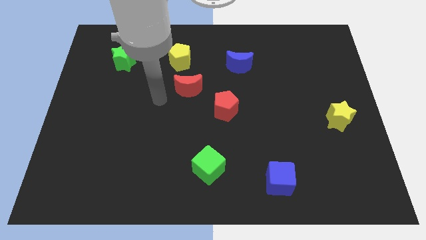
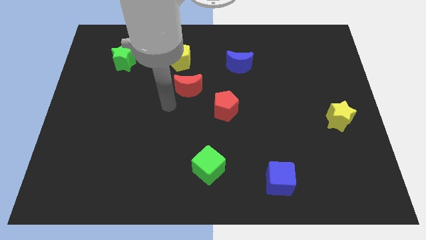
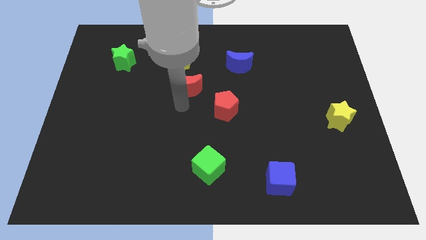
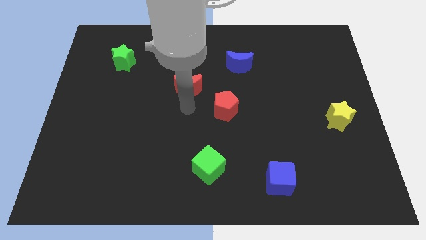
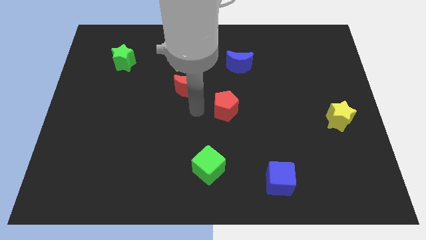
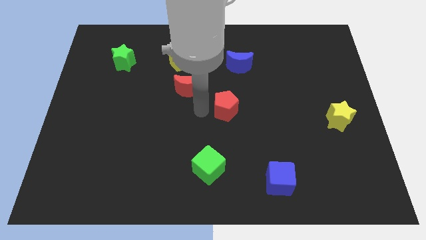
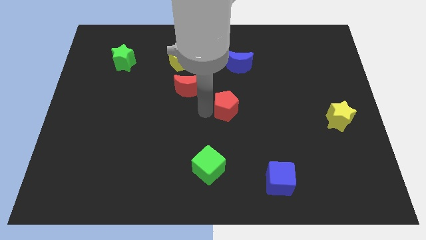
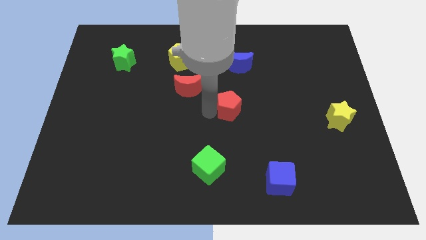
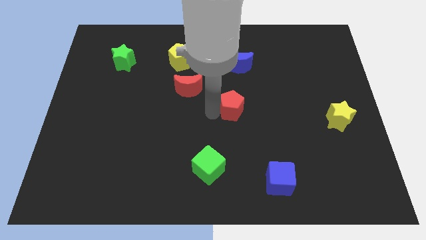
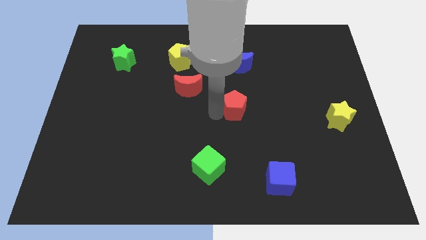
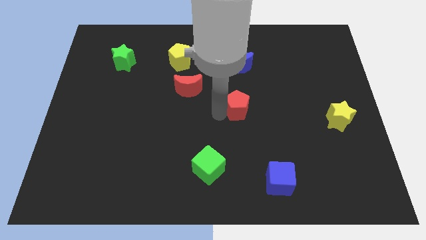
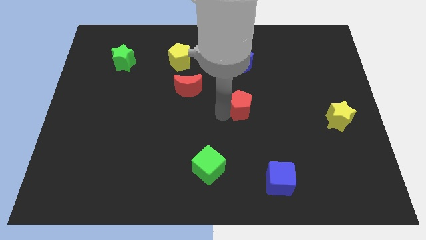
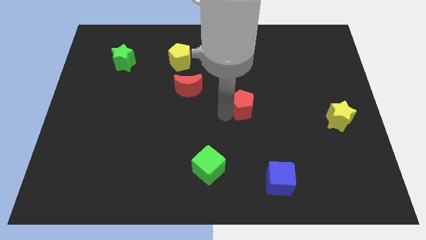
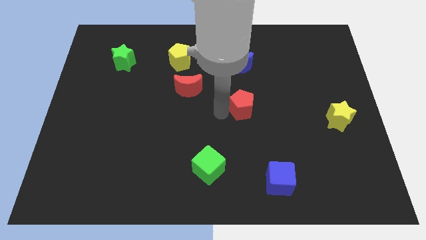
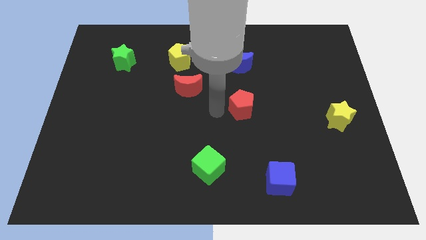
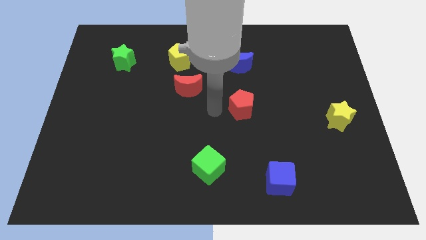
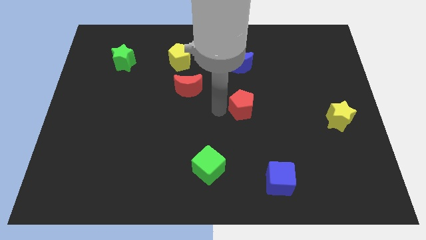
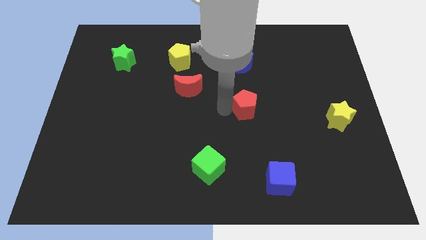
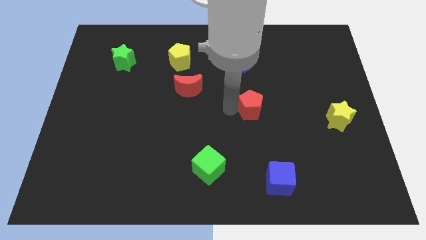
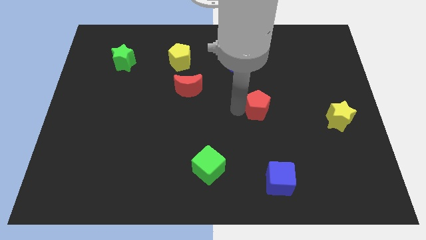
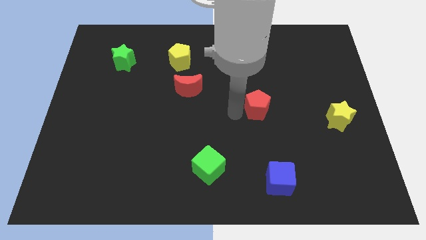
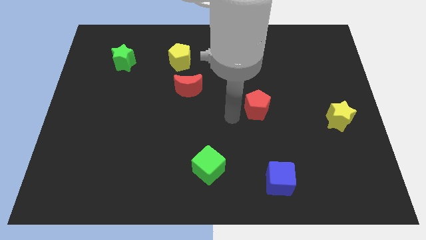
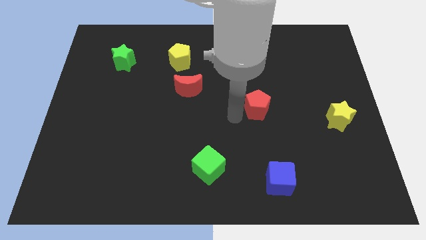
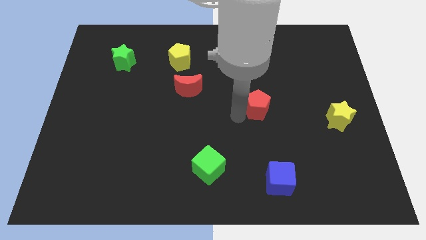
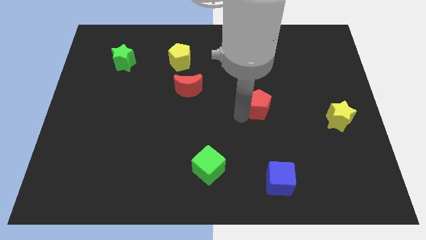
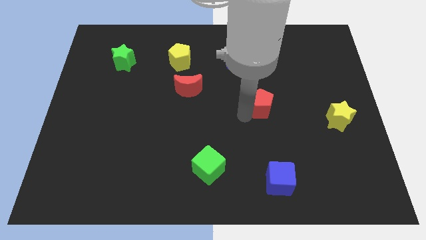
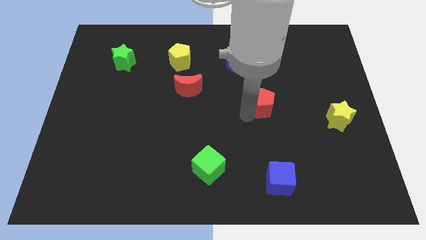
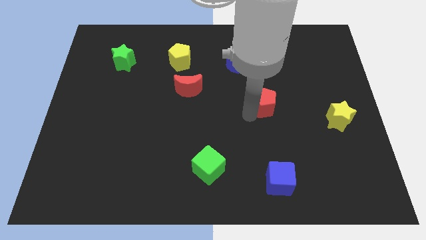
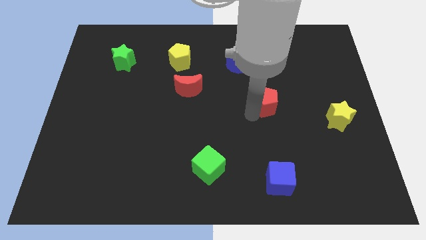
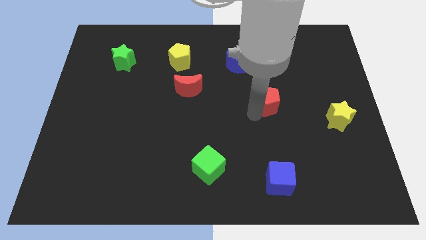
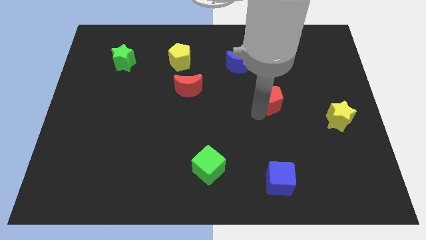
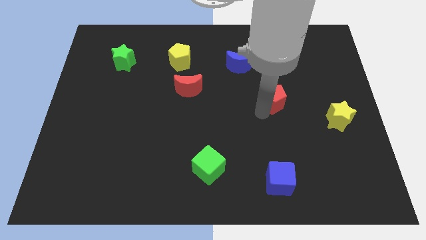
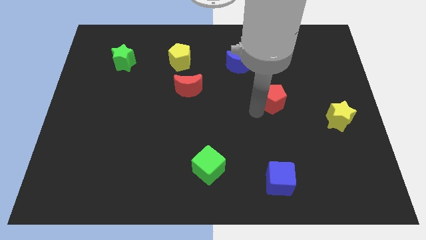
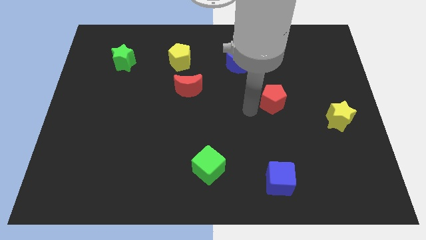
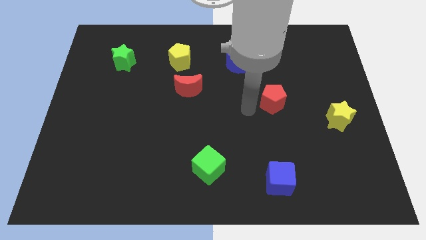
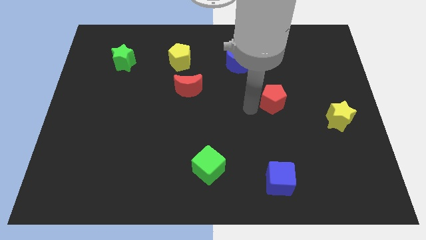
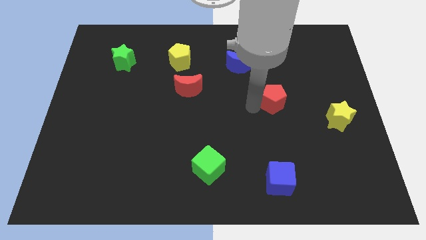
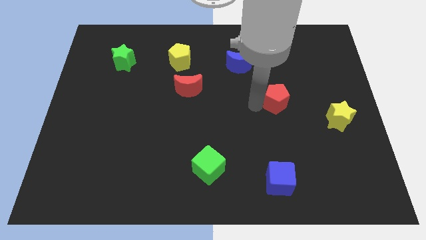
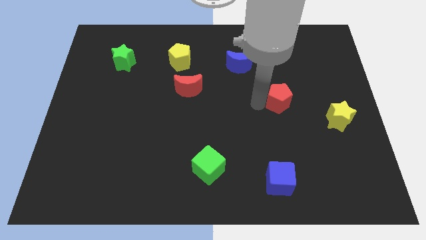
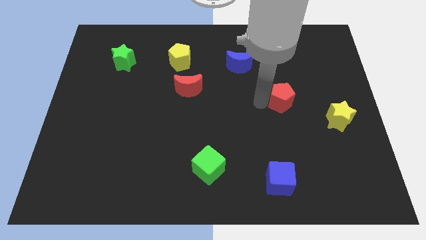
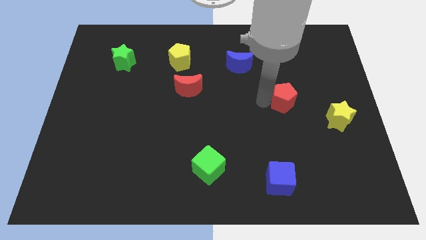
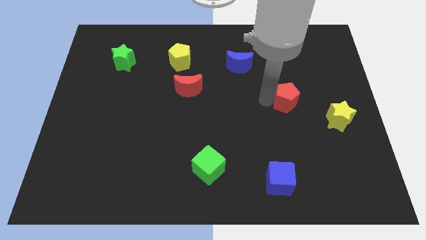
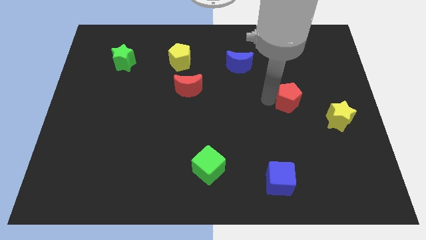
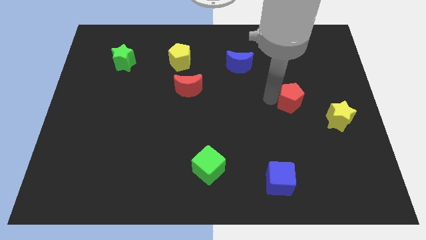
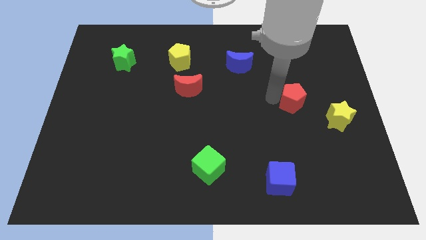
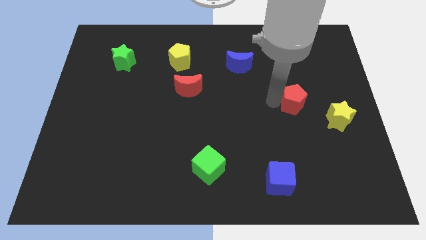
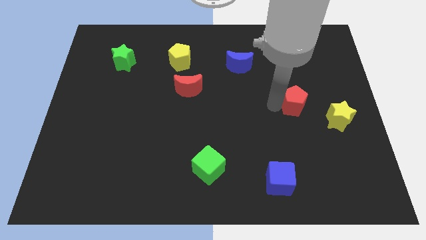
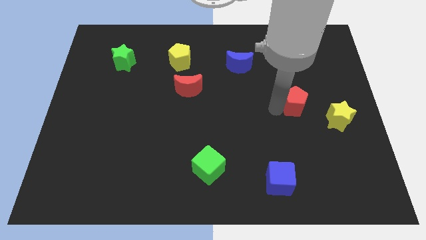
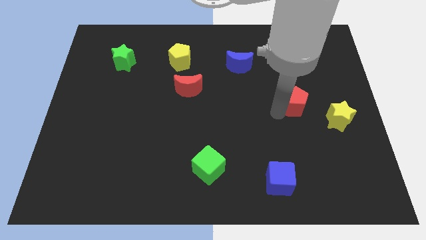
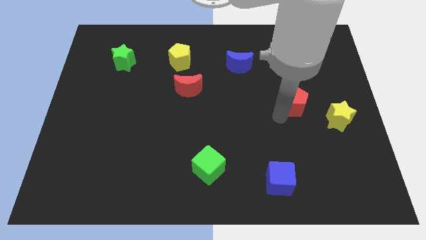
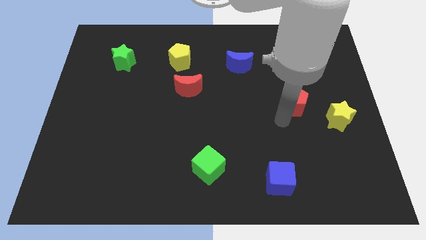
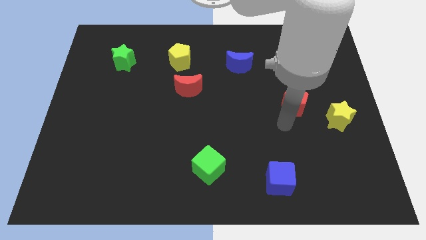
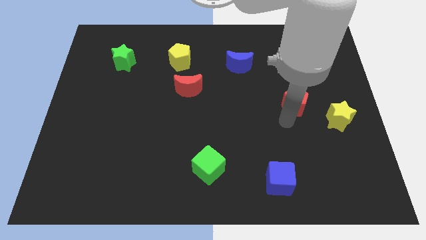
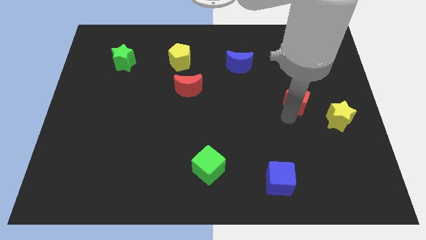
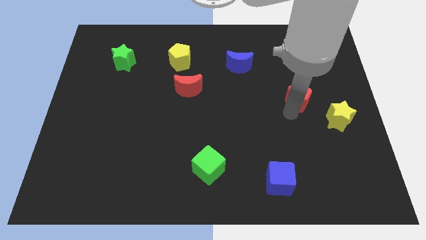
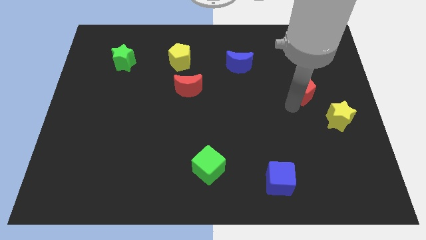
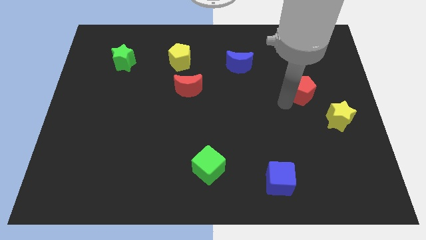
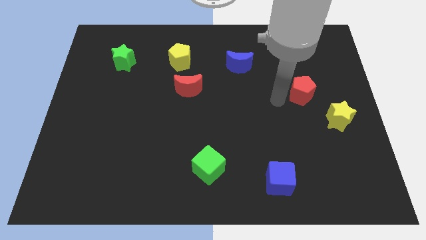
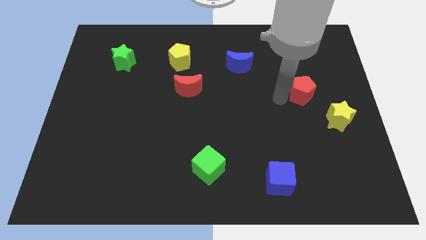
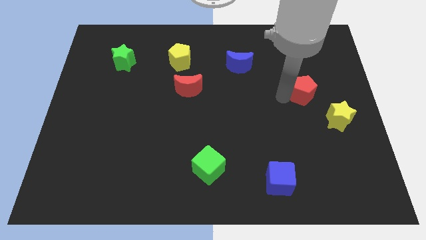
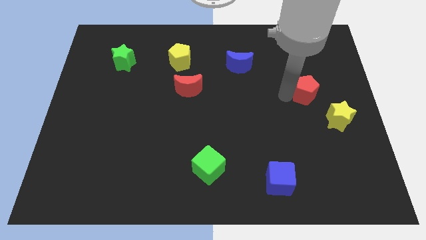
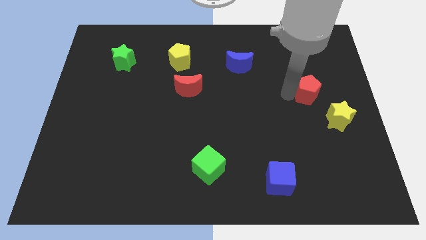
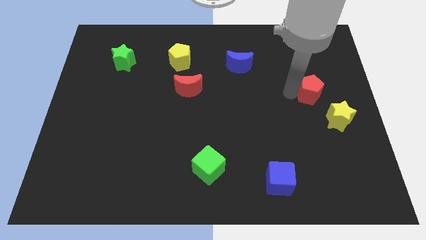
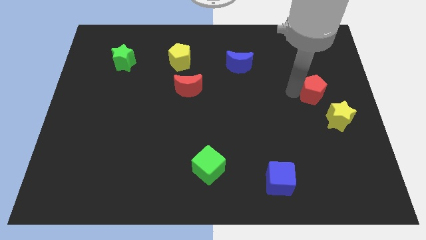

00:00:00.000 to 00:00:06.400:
put the red pentagon to the top of the yellow star

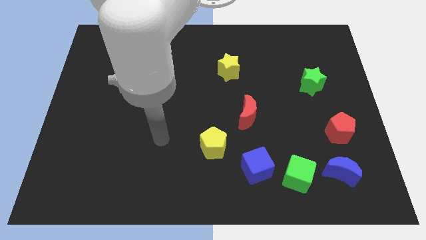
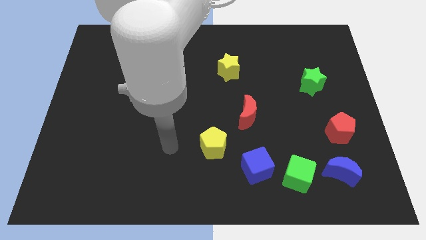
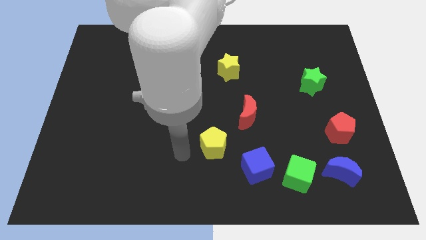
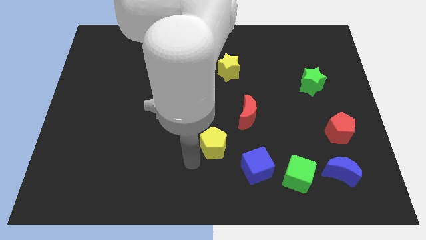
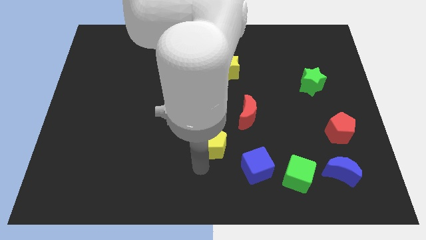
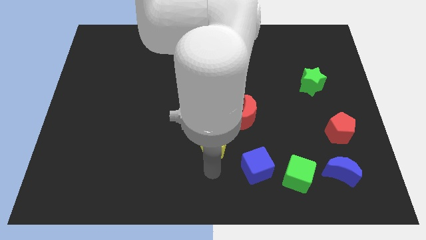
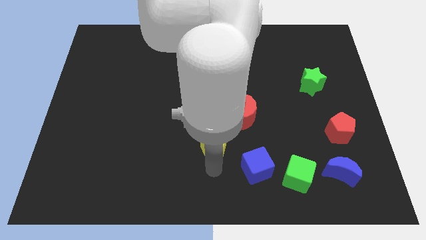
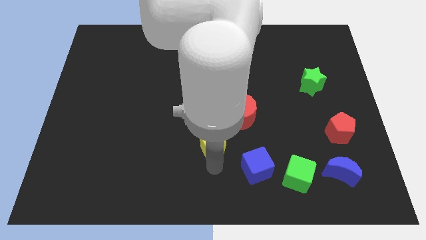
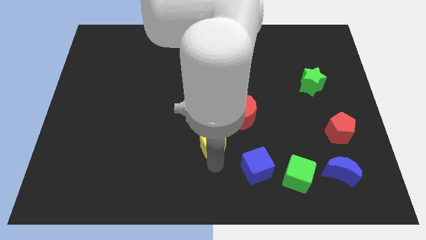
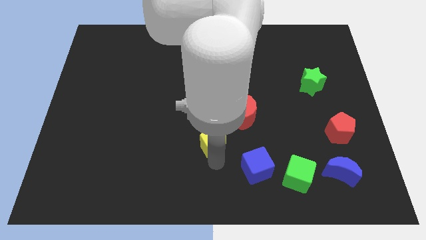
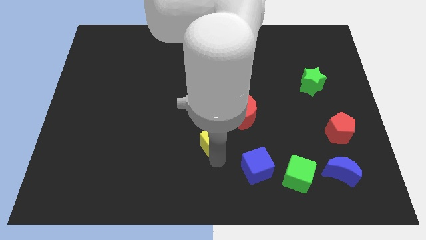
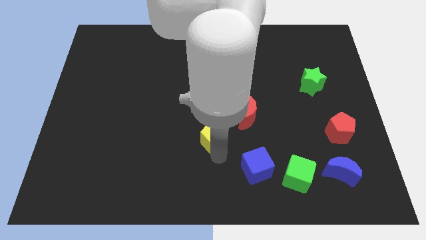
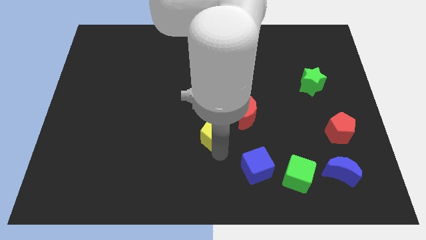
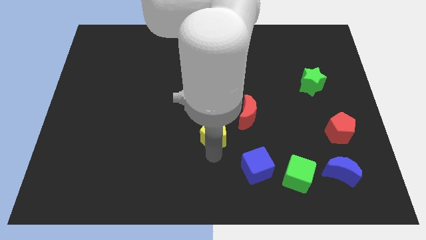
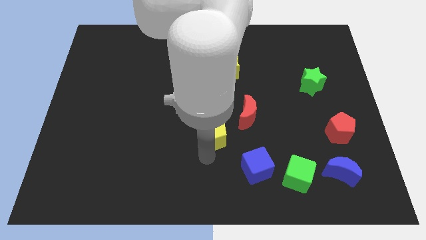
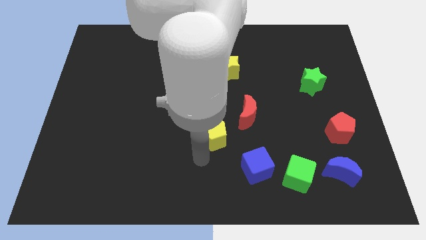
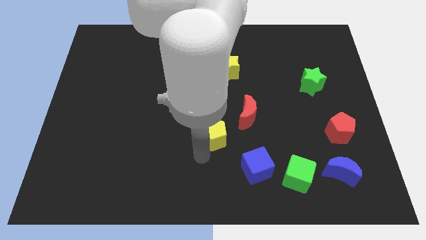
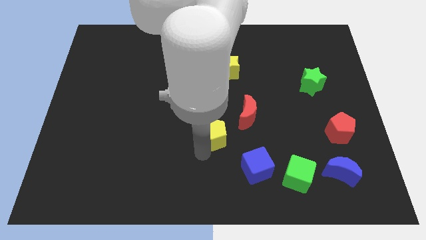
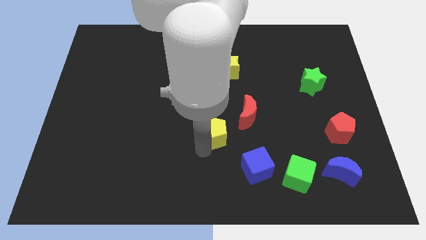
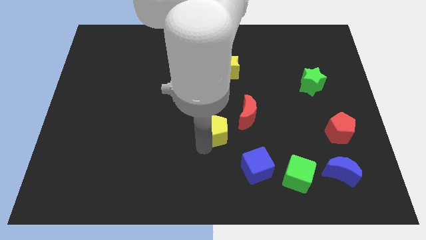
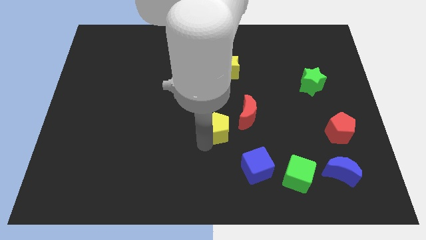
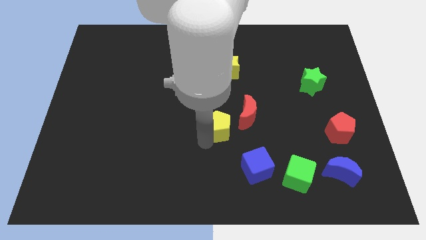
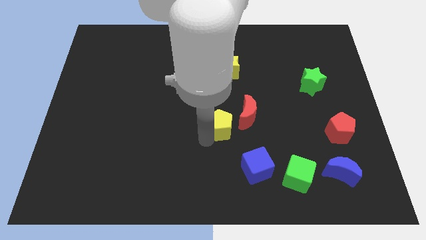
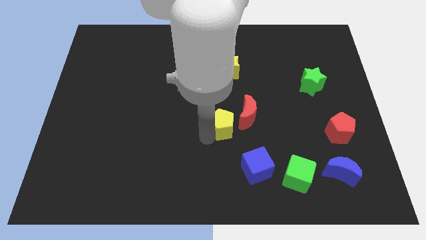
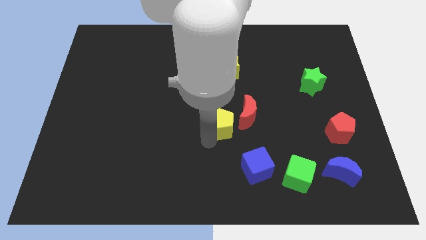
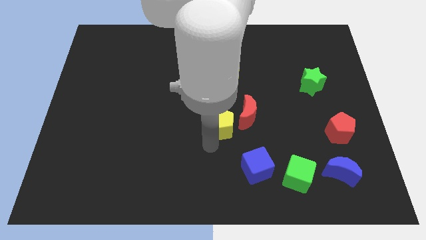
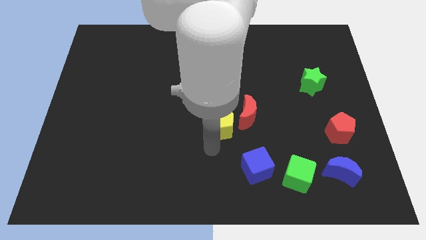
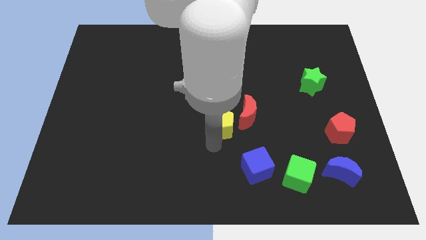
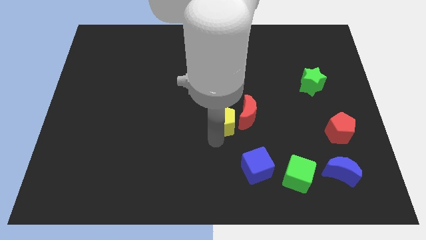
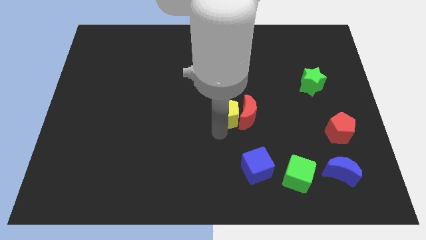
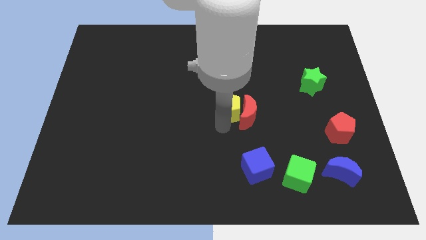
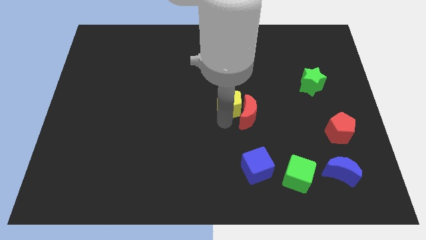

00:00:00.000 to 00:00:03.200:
put the yellow pentagon above the red moon
